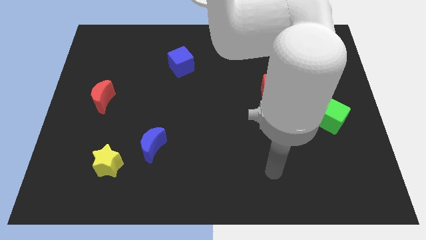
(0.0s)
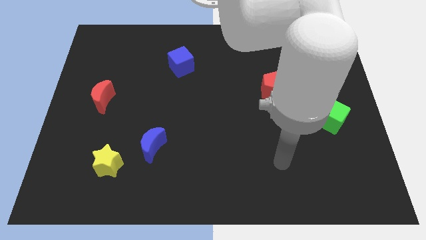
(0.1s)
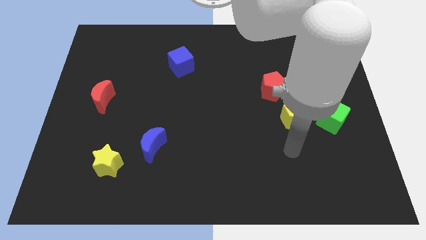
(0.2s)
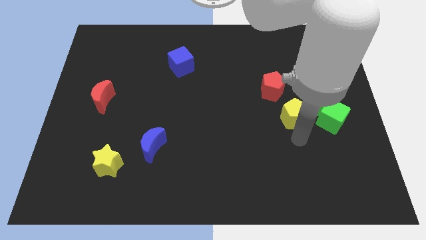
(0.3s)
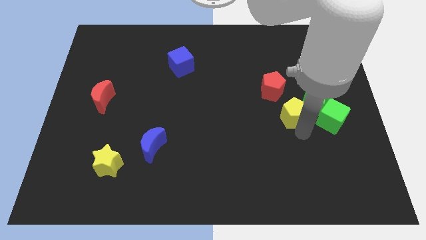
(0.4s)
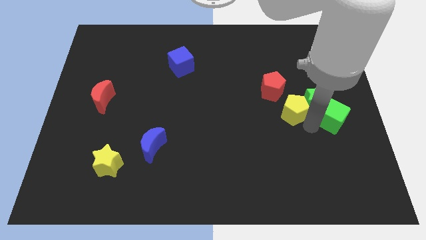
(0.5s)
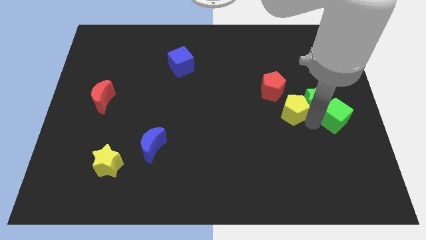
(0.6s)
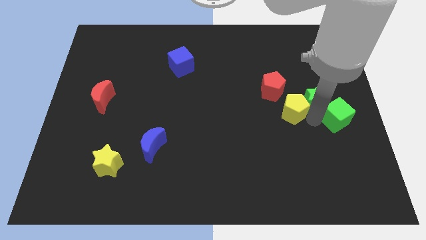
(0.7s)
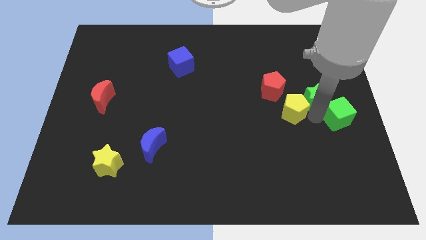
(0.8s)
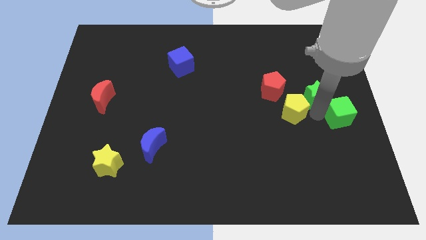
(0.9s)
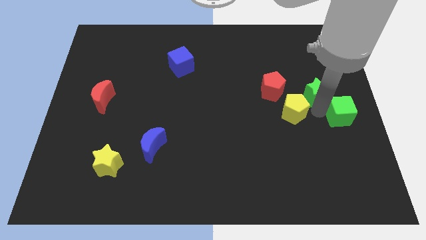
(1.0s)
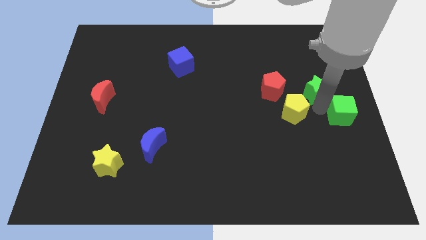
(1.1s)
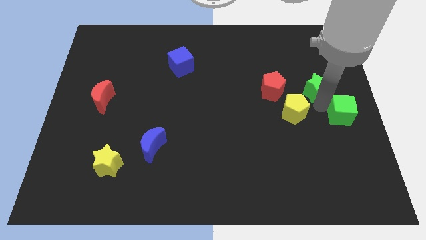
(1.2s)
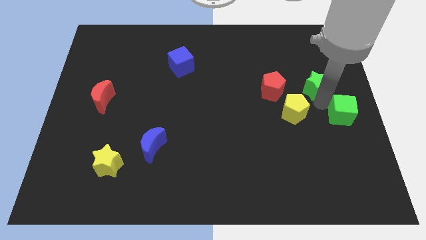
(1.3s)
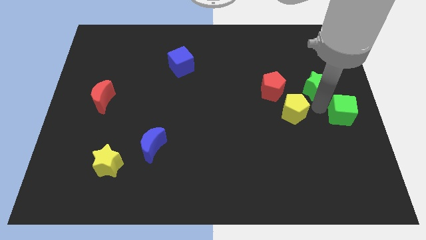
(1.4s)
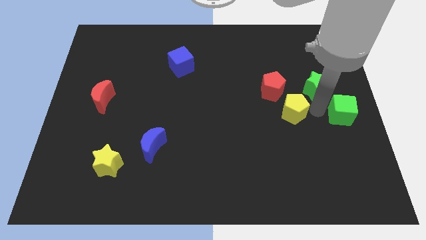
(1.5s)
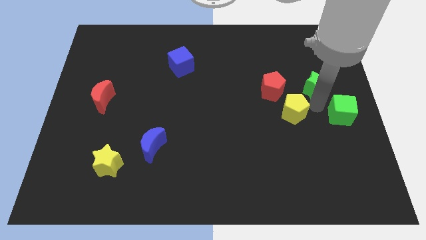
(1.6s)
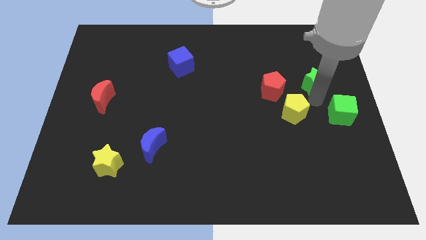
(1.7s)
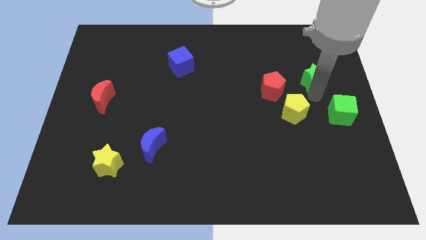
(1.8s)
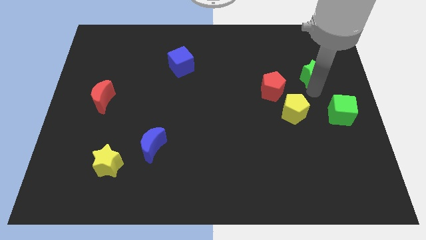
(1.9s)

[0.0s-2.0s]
separate the green star from the green cube and yellow pentagon

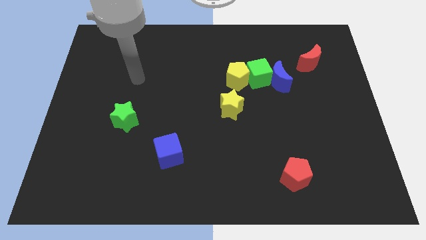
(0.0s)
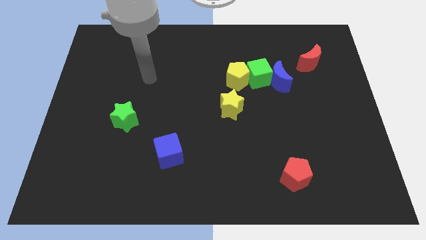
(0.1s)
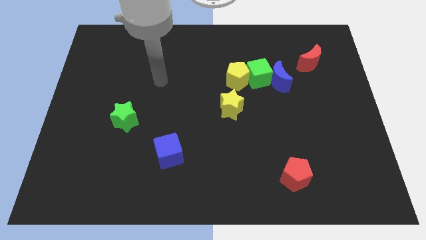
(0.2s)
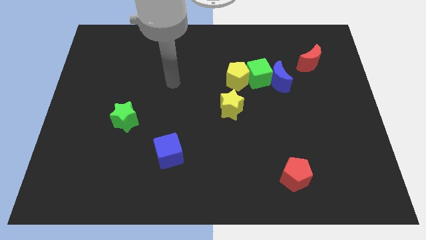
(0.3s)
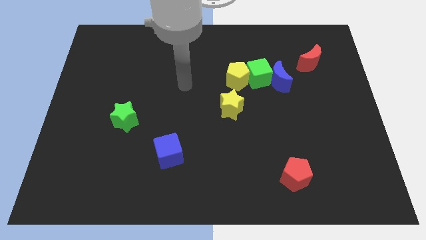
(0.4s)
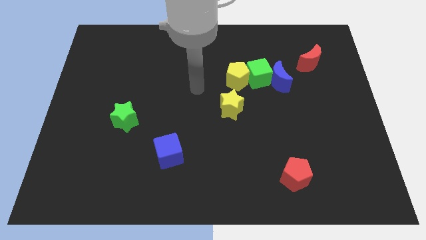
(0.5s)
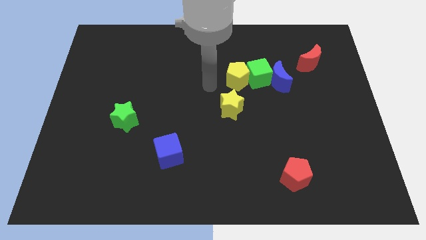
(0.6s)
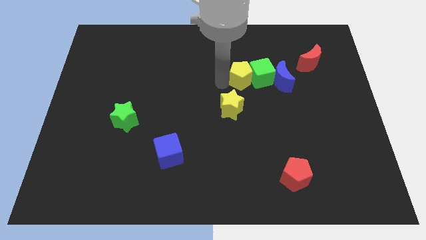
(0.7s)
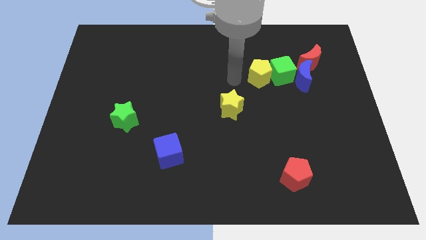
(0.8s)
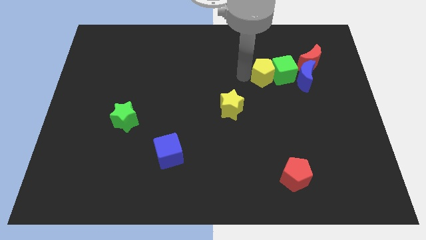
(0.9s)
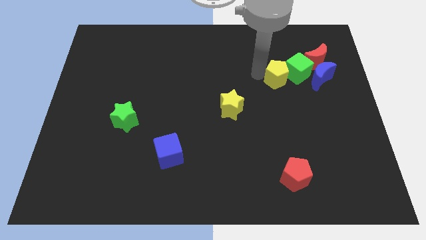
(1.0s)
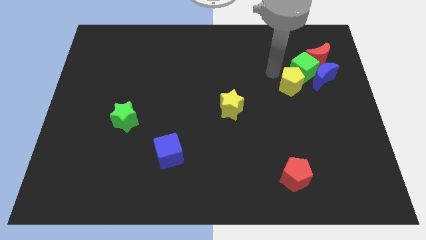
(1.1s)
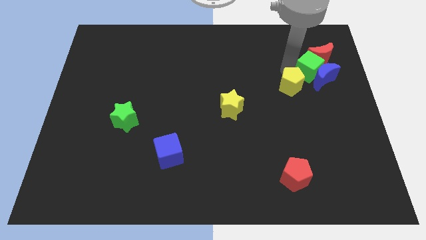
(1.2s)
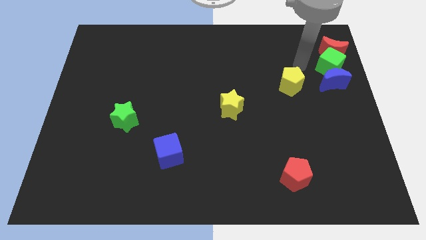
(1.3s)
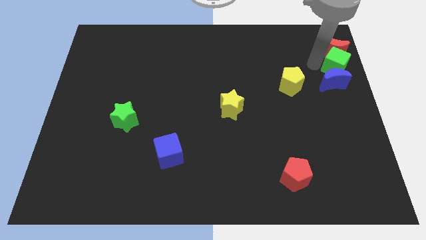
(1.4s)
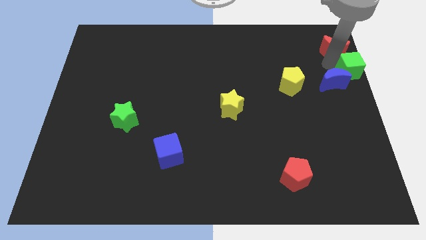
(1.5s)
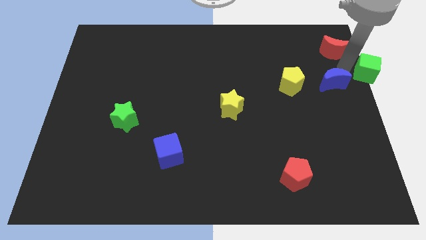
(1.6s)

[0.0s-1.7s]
separate the blue moon from the green cube

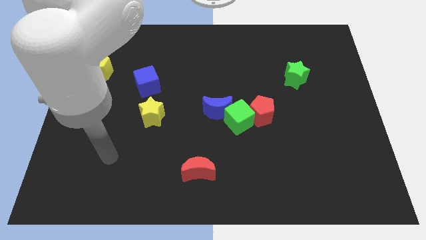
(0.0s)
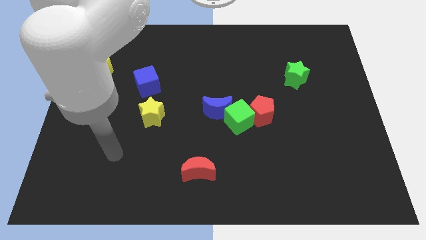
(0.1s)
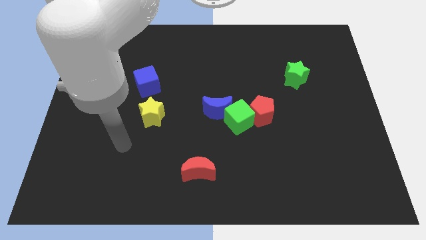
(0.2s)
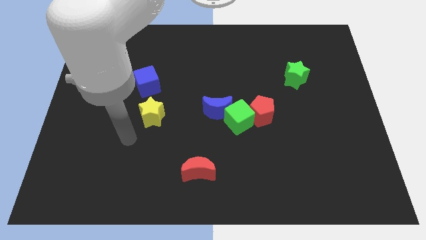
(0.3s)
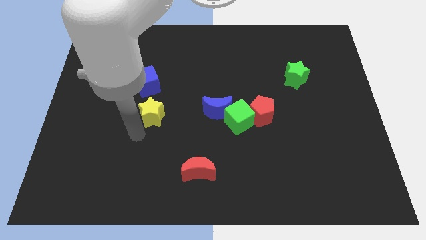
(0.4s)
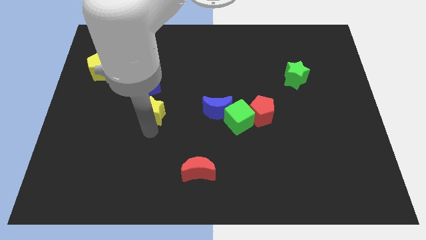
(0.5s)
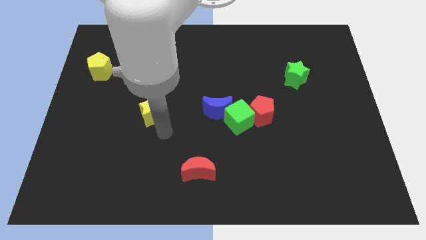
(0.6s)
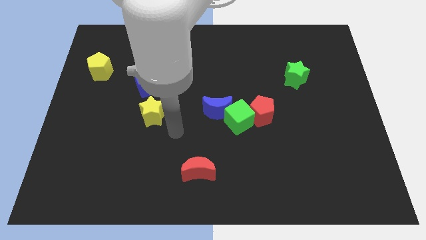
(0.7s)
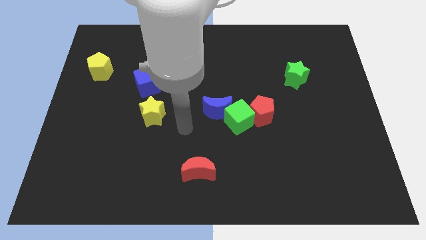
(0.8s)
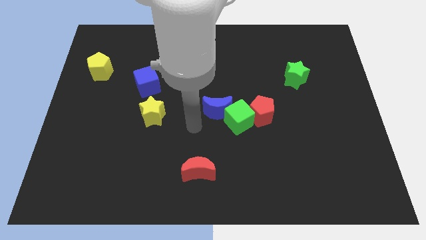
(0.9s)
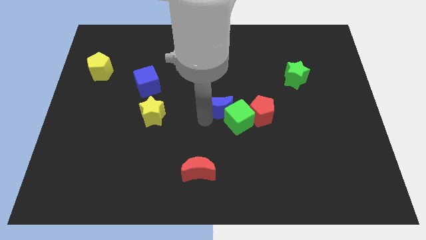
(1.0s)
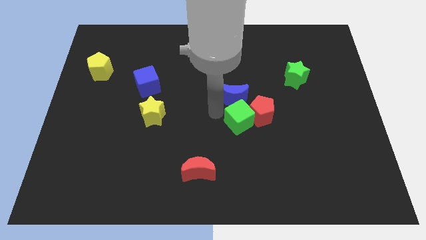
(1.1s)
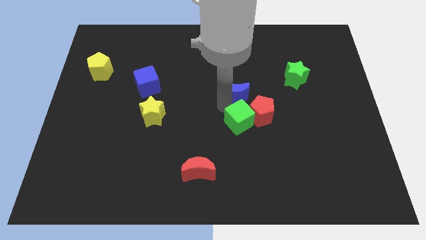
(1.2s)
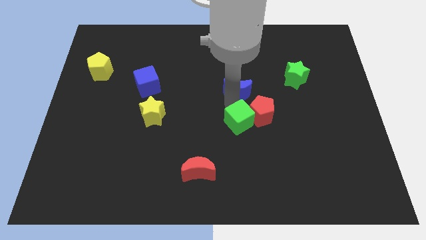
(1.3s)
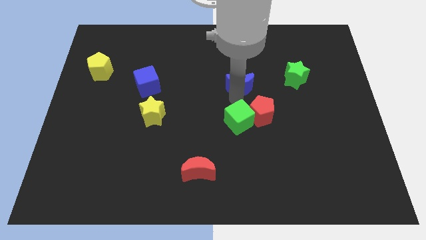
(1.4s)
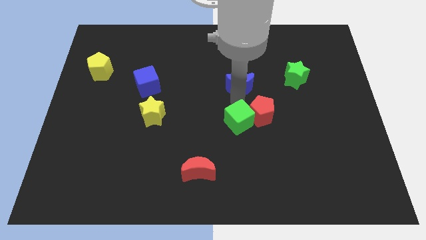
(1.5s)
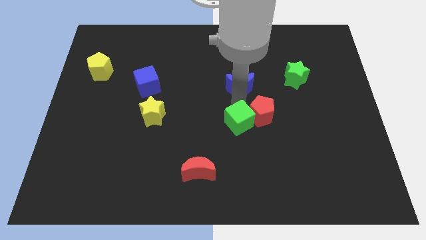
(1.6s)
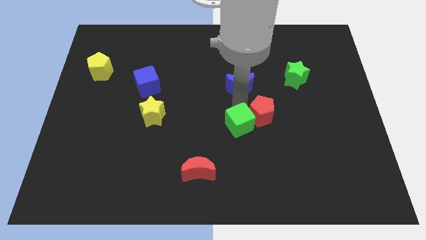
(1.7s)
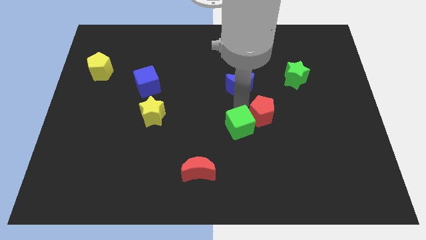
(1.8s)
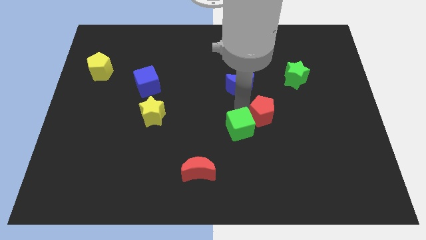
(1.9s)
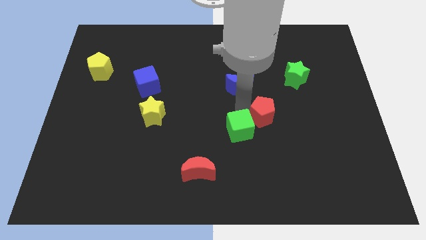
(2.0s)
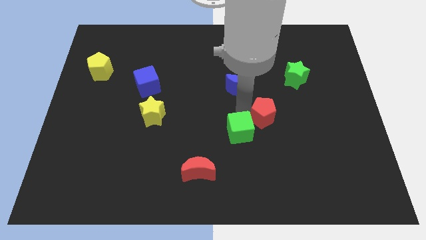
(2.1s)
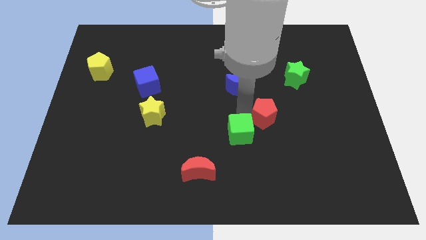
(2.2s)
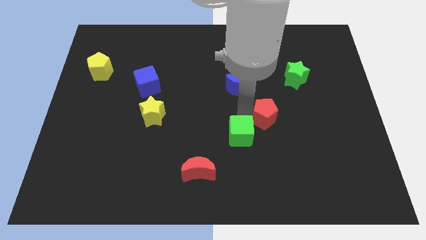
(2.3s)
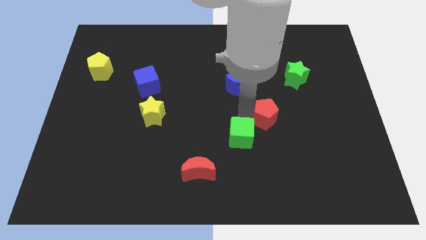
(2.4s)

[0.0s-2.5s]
pull the green cube apart from the red pentagon and blue moon

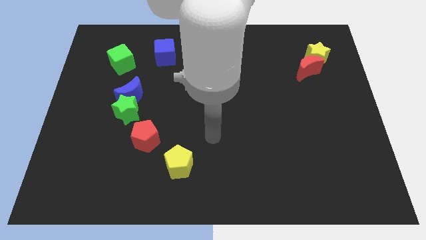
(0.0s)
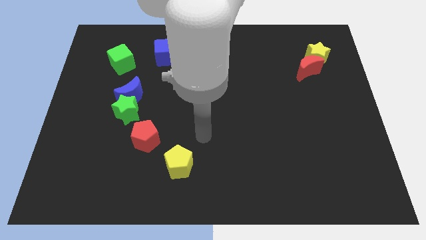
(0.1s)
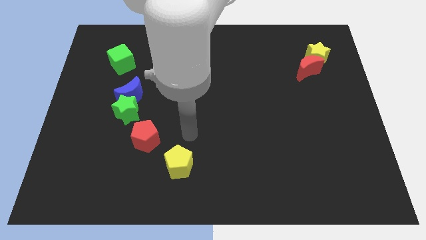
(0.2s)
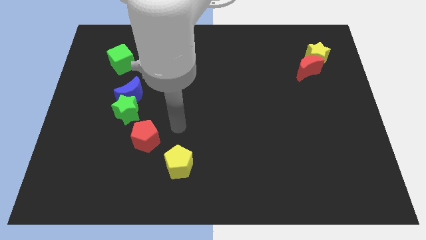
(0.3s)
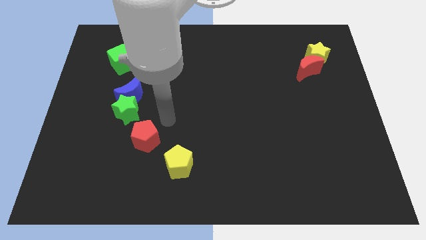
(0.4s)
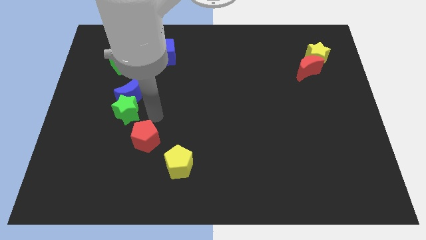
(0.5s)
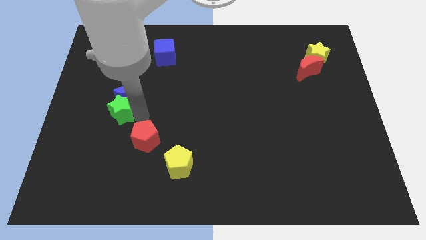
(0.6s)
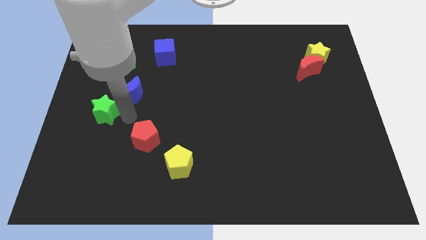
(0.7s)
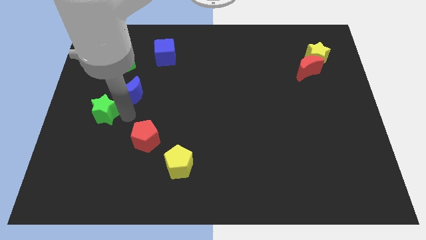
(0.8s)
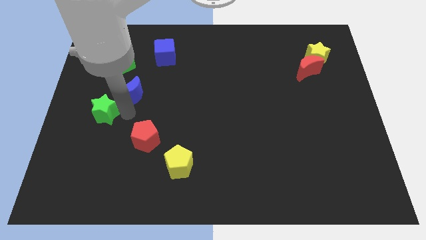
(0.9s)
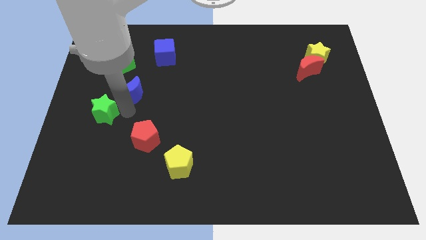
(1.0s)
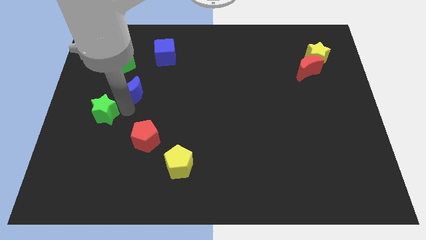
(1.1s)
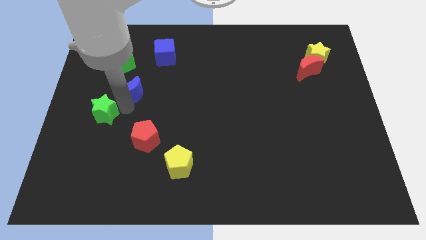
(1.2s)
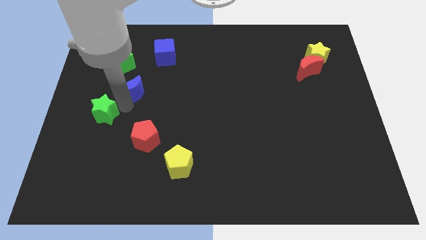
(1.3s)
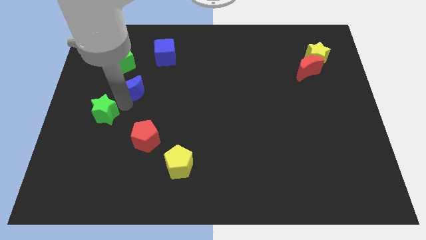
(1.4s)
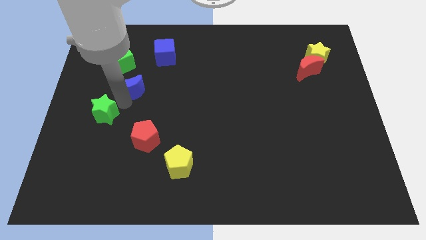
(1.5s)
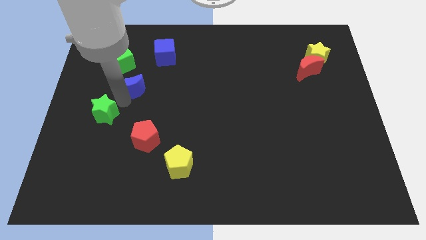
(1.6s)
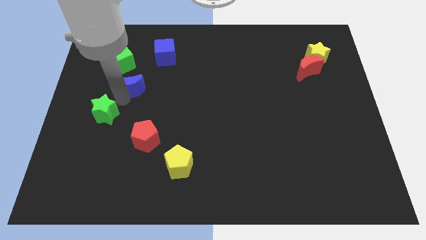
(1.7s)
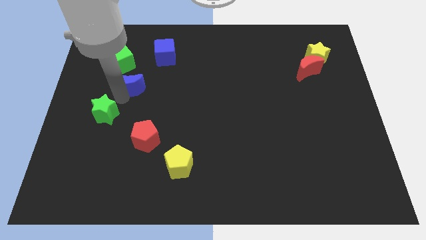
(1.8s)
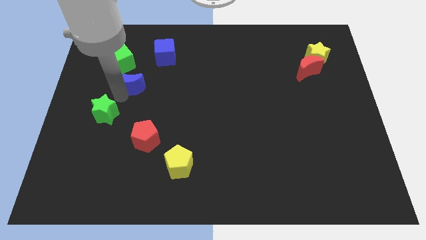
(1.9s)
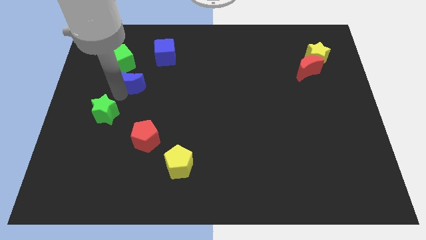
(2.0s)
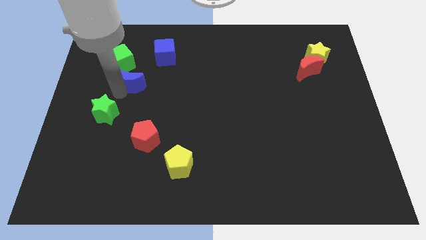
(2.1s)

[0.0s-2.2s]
move the blue moon away from the green star

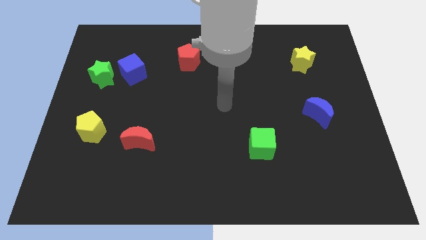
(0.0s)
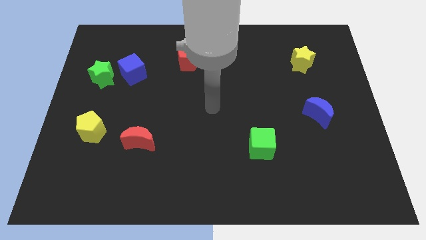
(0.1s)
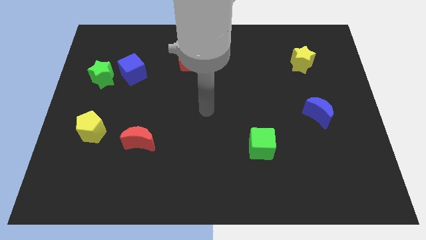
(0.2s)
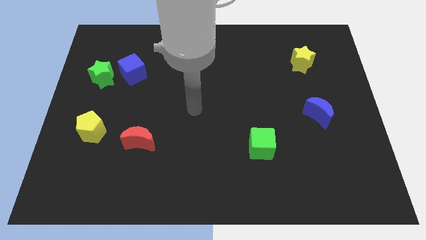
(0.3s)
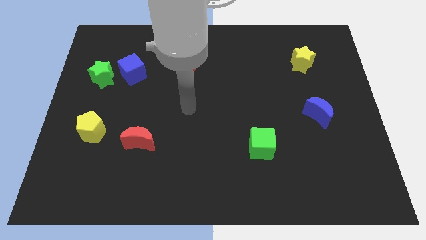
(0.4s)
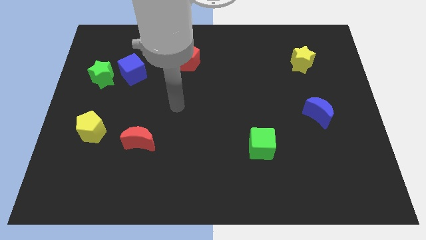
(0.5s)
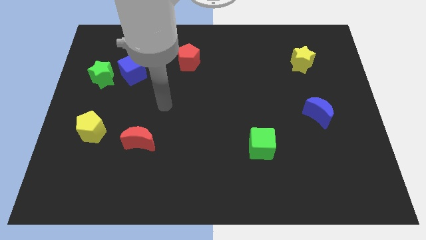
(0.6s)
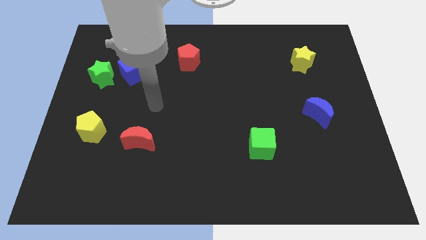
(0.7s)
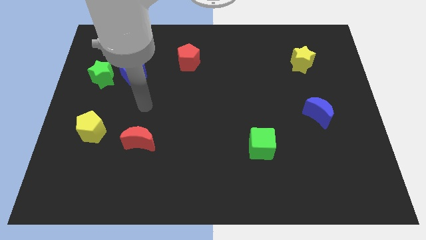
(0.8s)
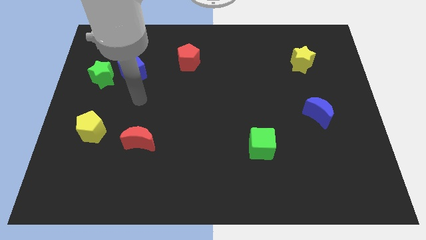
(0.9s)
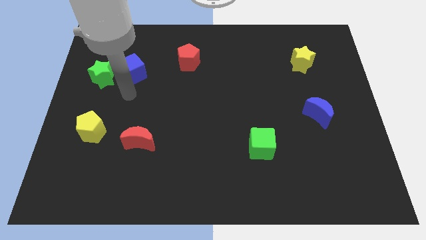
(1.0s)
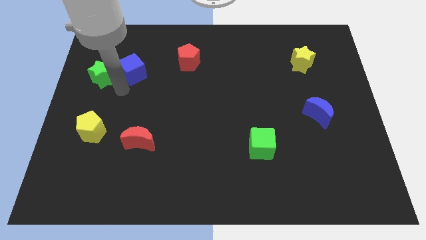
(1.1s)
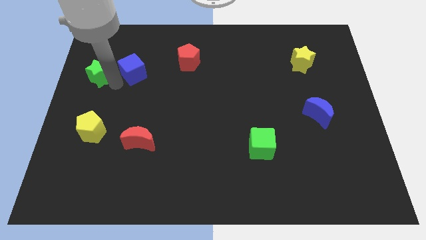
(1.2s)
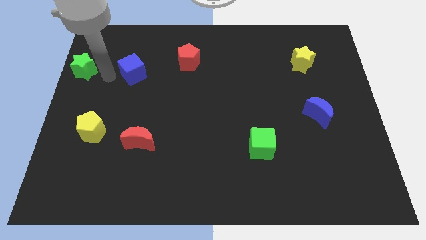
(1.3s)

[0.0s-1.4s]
pull the blue cube apart from the green star
